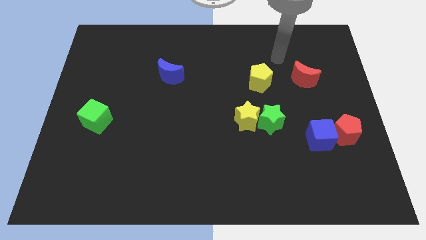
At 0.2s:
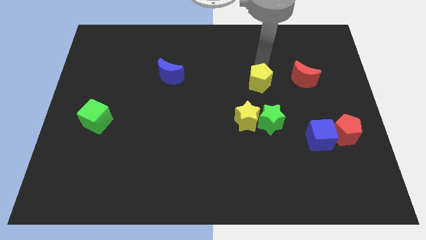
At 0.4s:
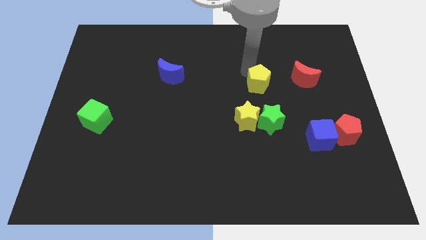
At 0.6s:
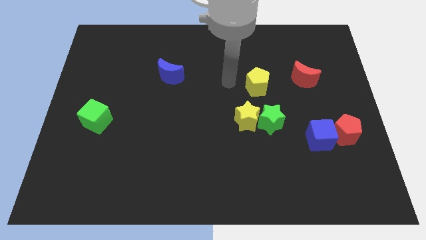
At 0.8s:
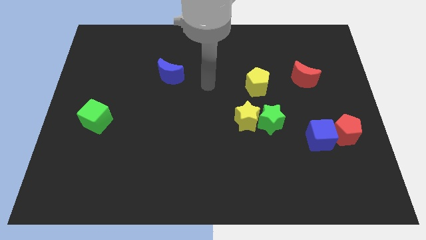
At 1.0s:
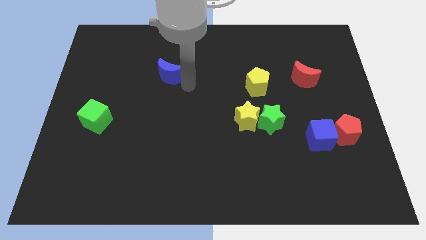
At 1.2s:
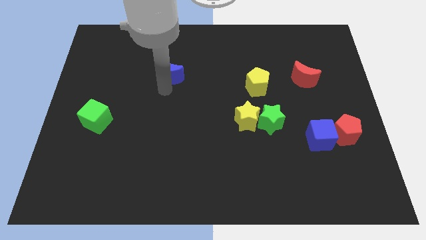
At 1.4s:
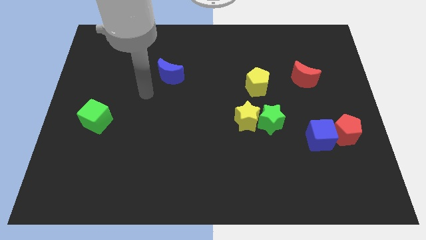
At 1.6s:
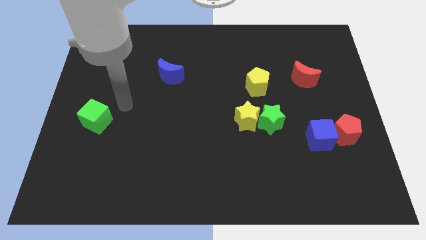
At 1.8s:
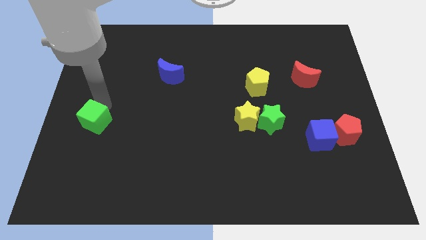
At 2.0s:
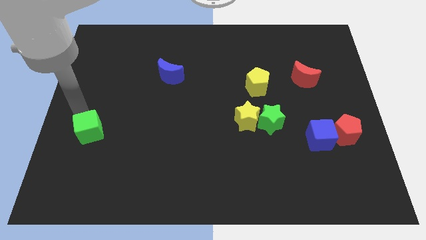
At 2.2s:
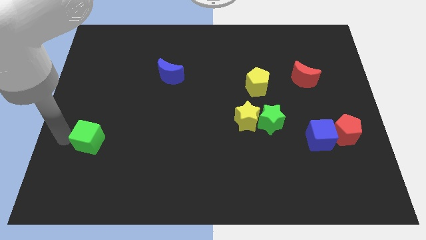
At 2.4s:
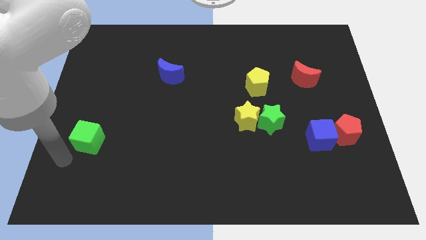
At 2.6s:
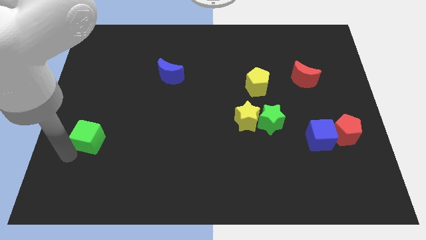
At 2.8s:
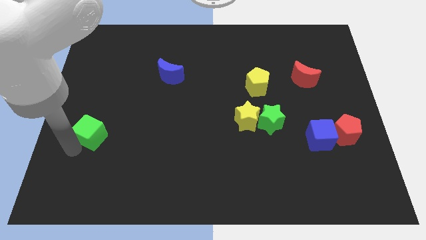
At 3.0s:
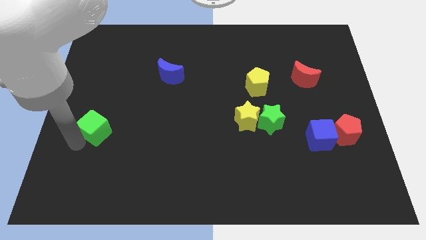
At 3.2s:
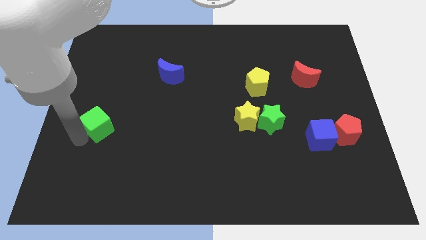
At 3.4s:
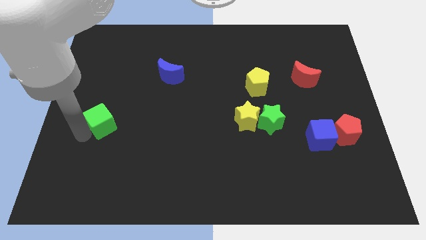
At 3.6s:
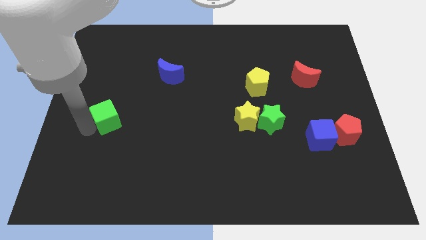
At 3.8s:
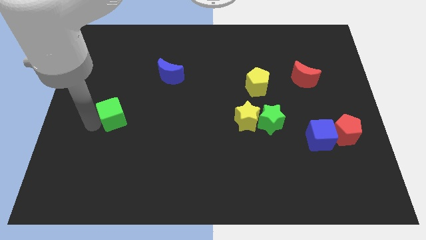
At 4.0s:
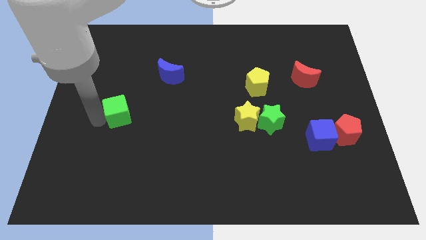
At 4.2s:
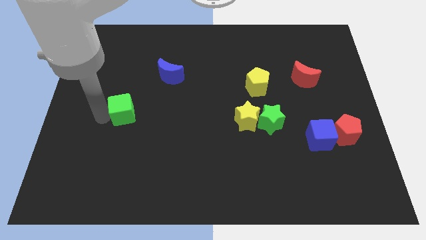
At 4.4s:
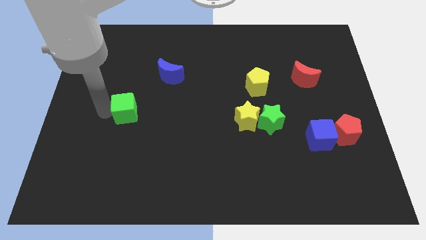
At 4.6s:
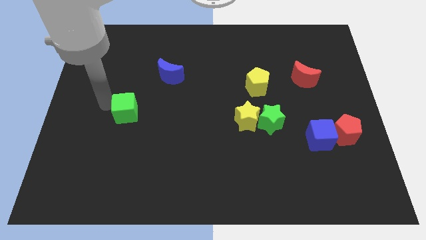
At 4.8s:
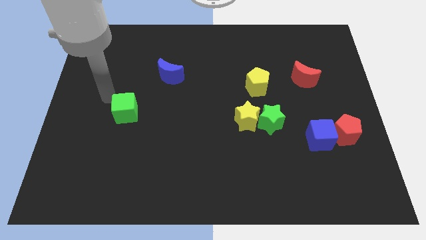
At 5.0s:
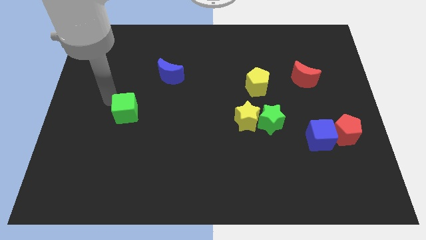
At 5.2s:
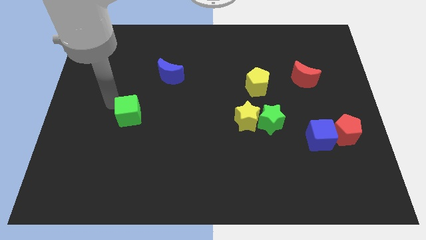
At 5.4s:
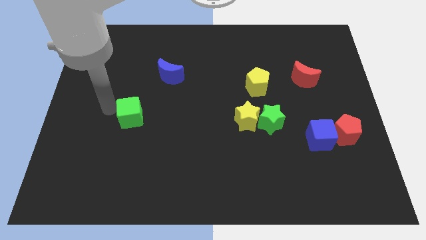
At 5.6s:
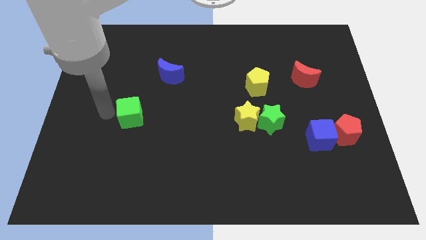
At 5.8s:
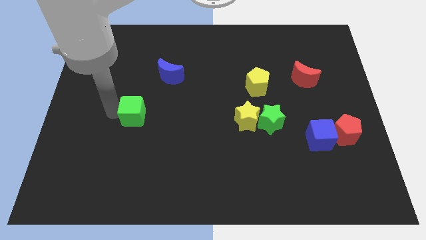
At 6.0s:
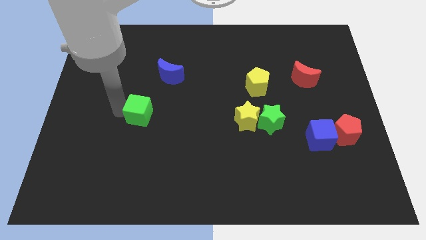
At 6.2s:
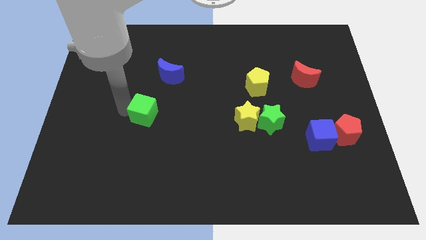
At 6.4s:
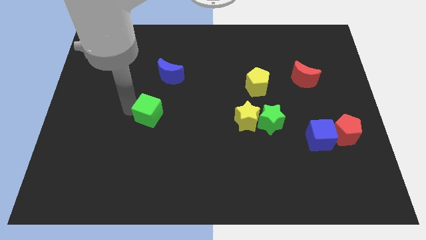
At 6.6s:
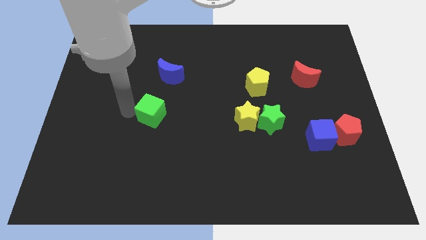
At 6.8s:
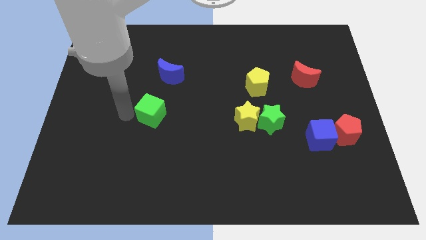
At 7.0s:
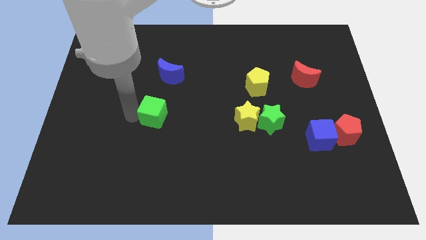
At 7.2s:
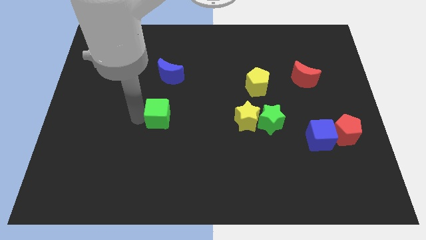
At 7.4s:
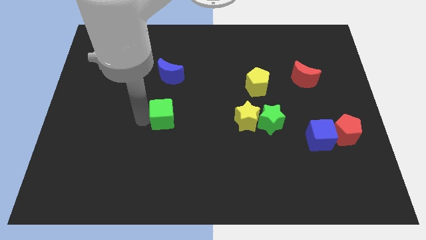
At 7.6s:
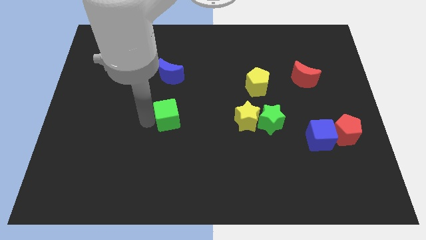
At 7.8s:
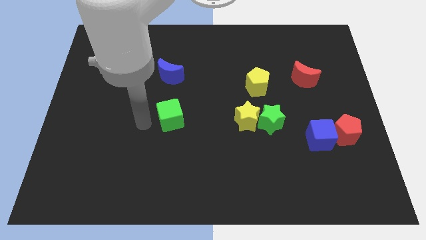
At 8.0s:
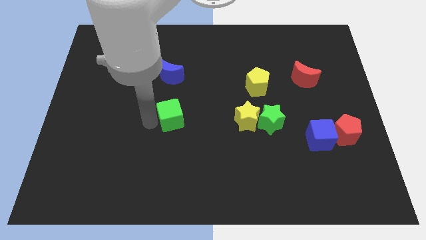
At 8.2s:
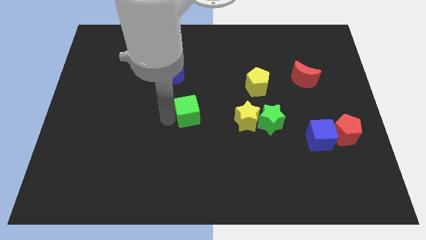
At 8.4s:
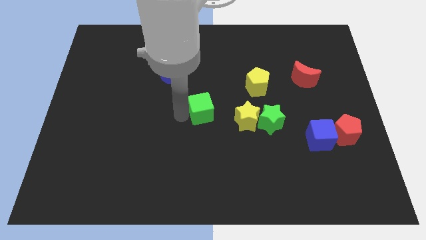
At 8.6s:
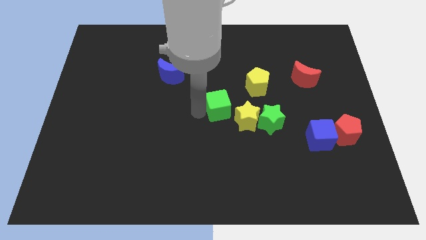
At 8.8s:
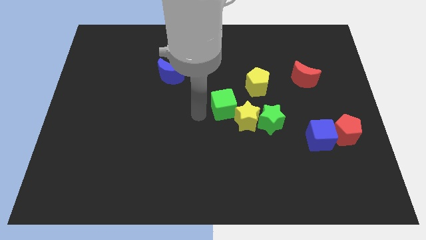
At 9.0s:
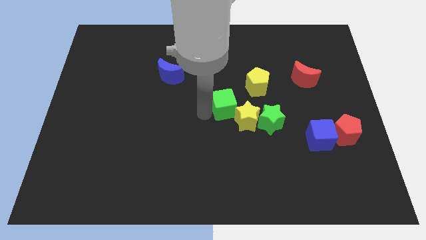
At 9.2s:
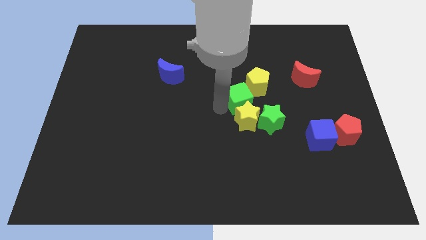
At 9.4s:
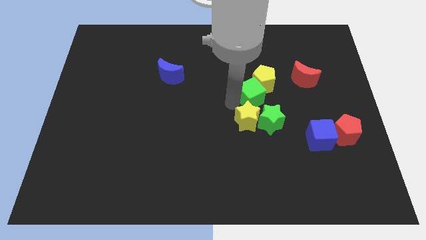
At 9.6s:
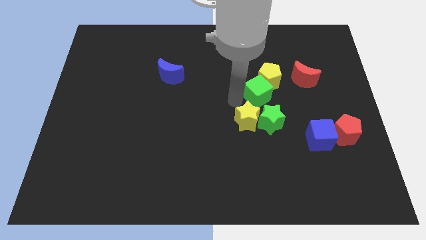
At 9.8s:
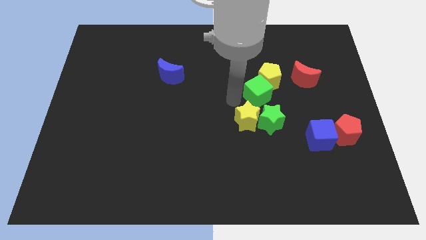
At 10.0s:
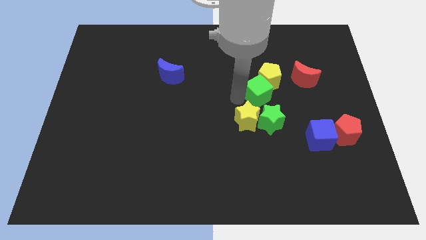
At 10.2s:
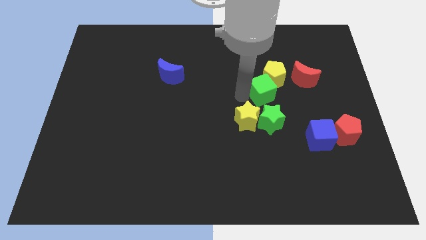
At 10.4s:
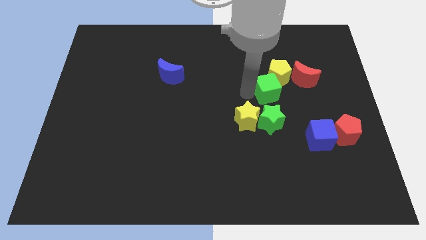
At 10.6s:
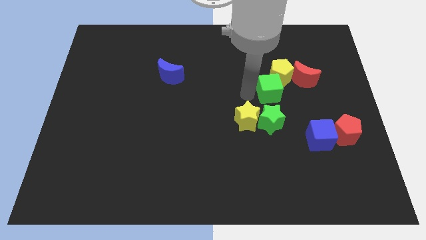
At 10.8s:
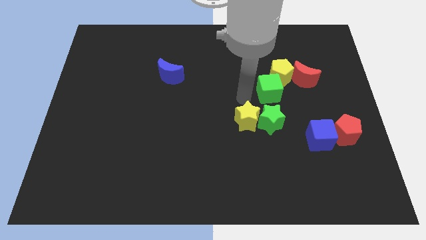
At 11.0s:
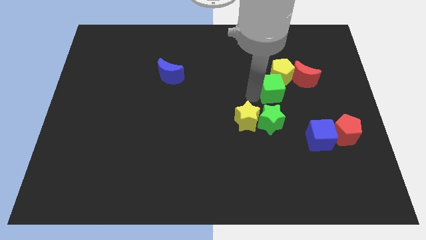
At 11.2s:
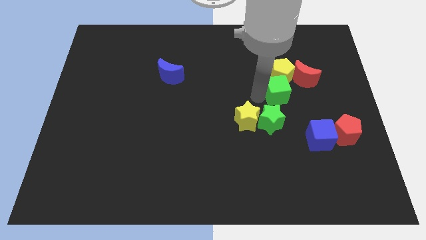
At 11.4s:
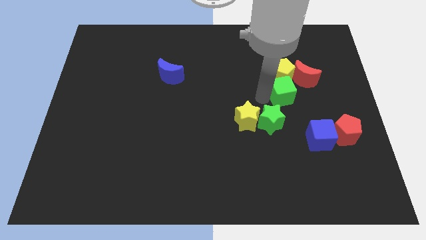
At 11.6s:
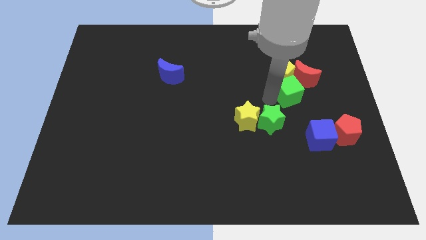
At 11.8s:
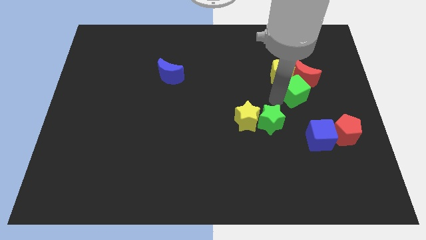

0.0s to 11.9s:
push the green cube towards the red moon
